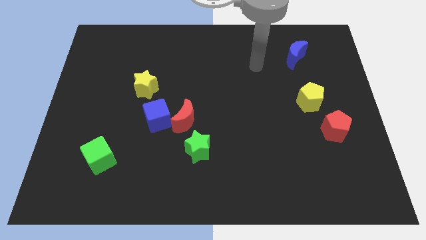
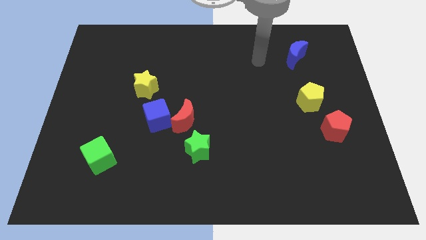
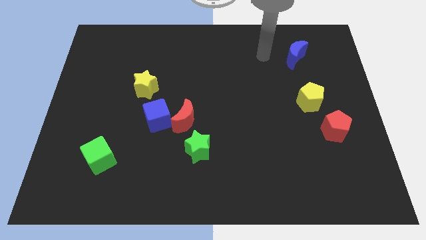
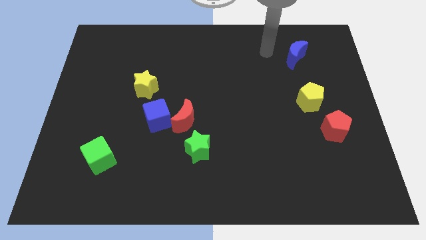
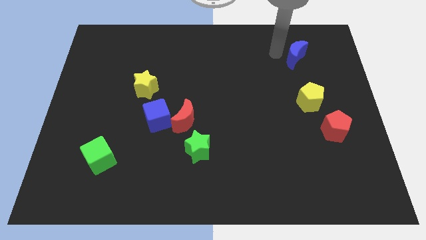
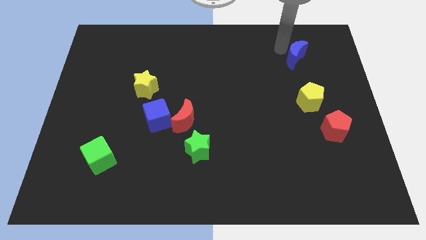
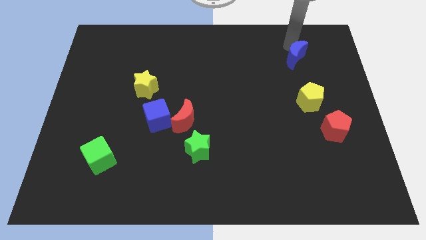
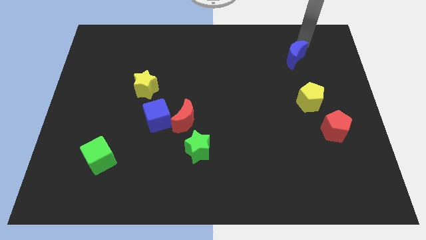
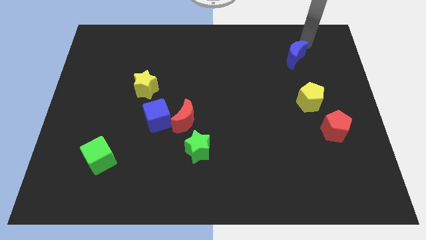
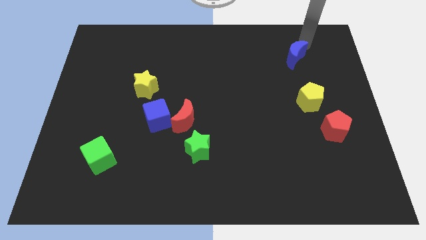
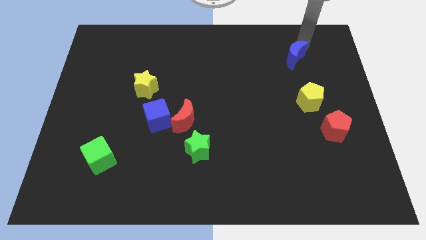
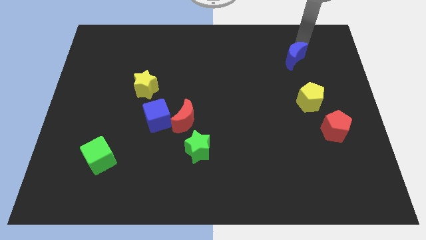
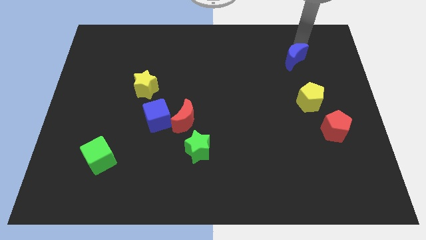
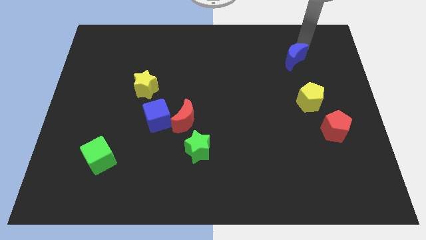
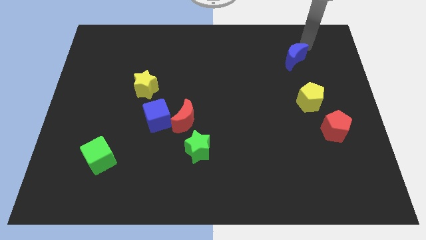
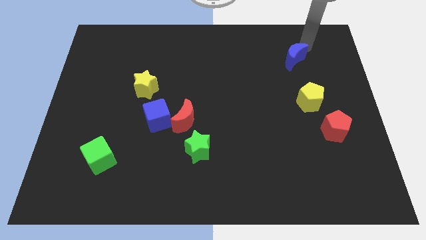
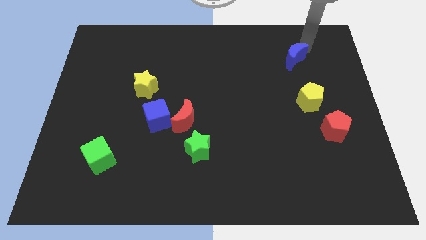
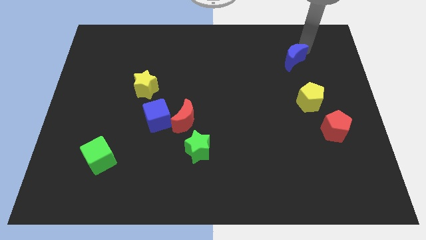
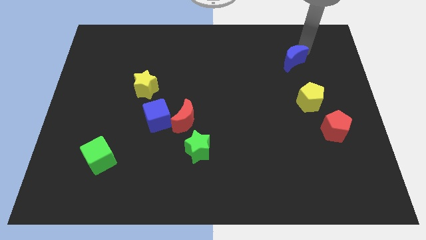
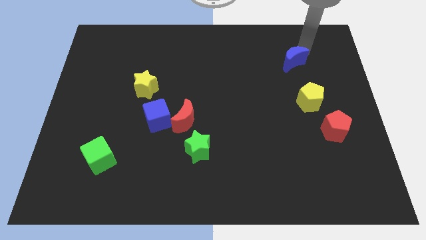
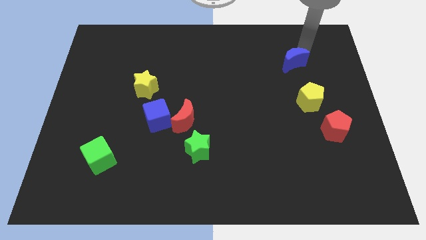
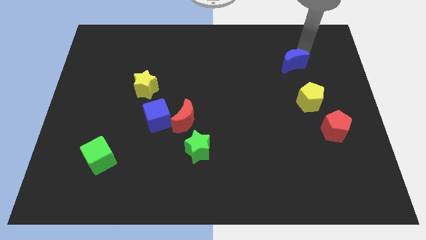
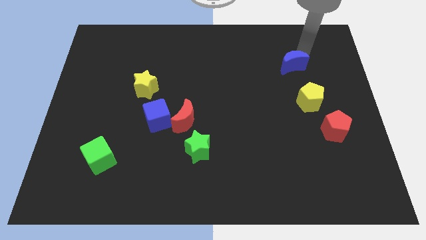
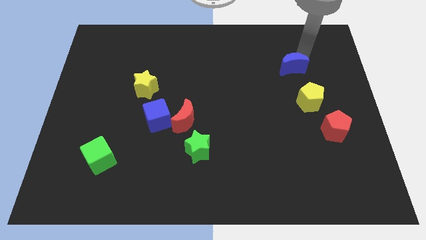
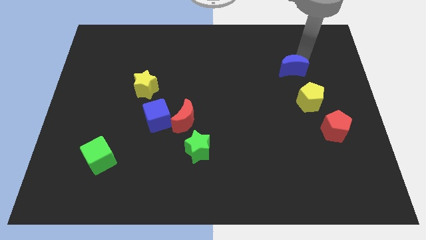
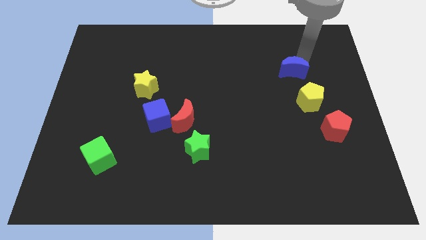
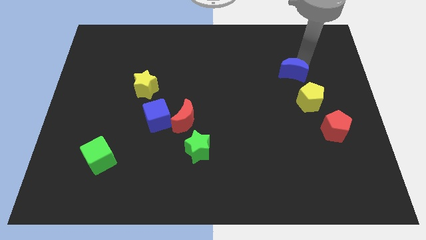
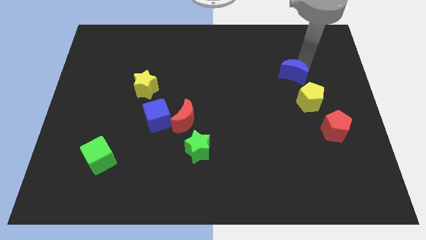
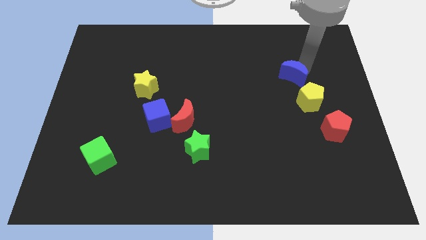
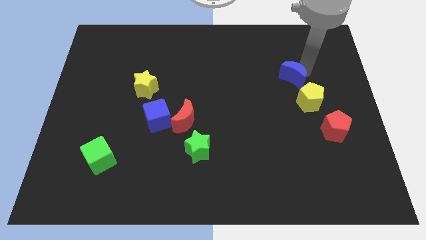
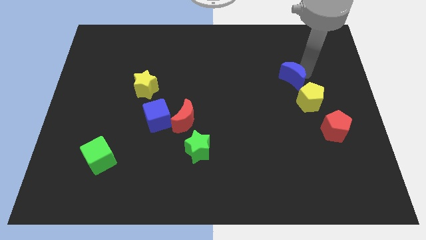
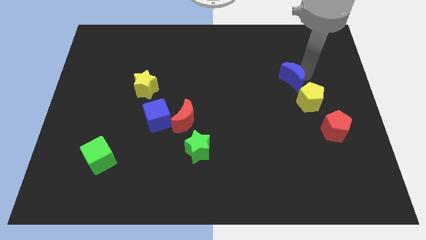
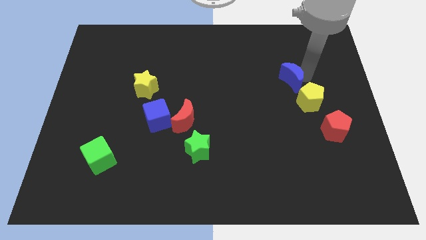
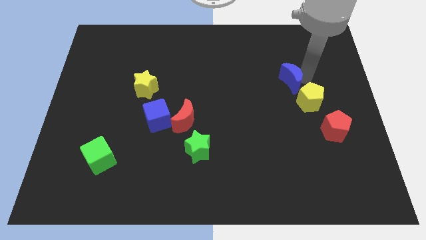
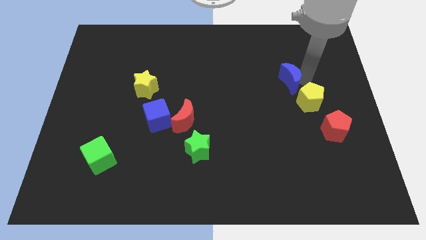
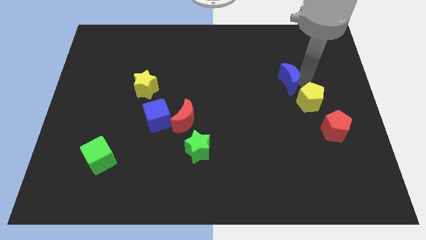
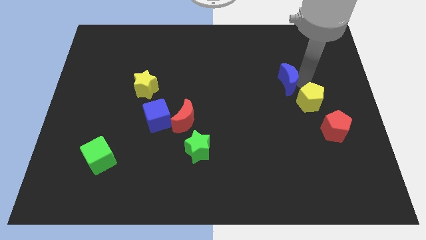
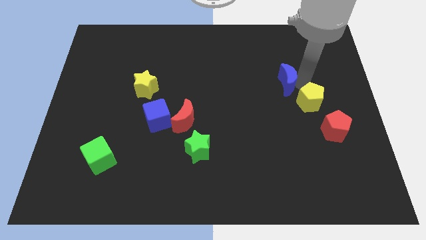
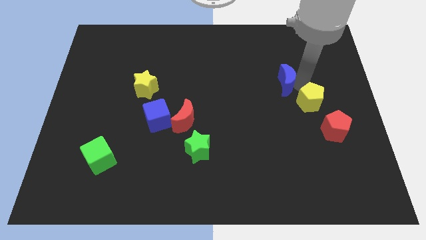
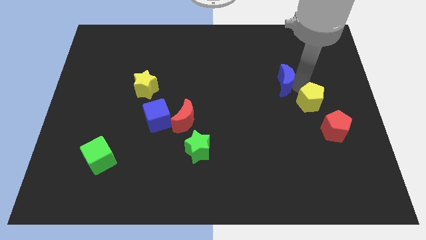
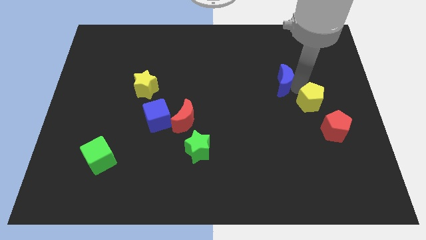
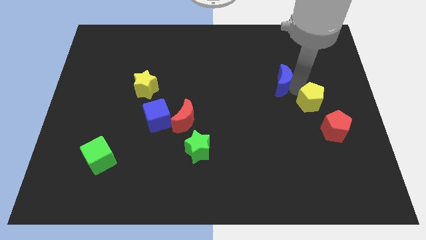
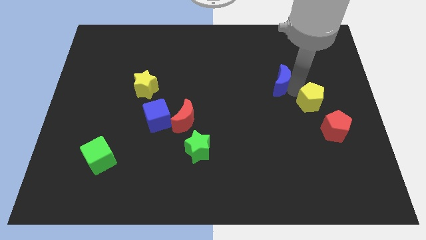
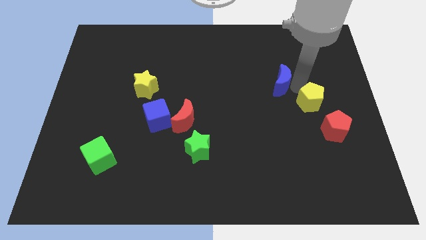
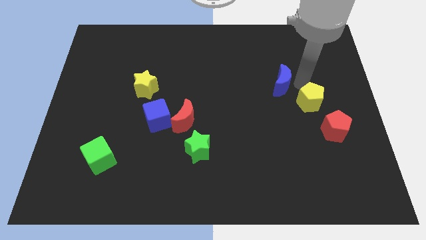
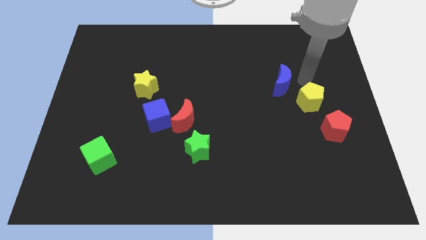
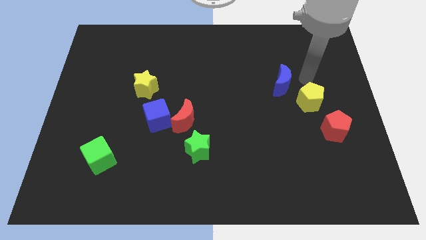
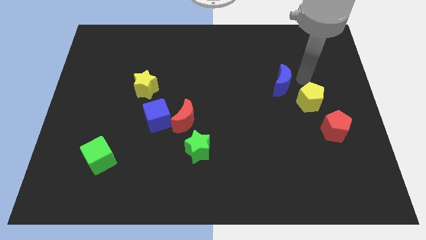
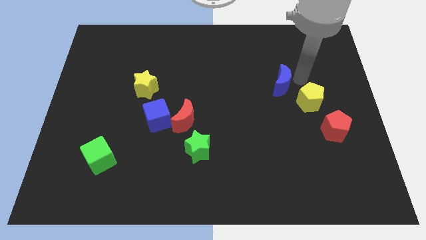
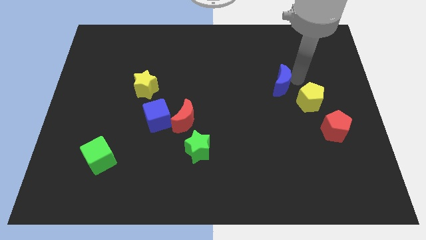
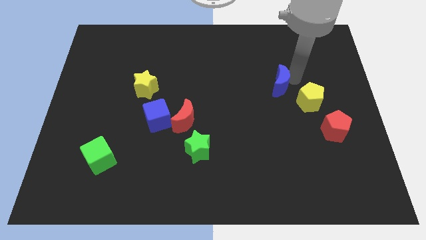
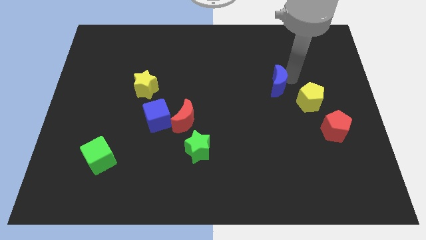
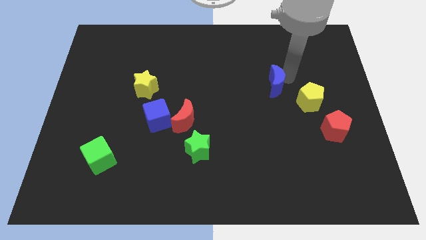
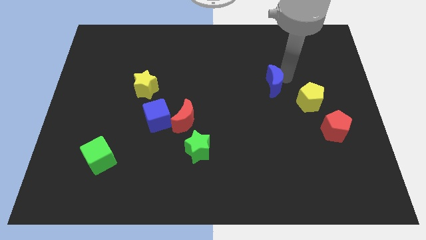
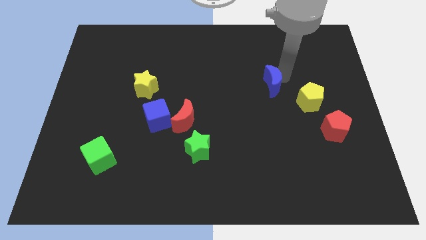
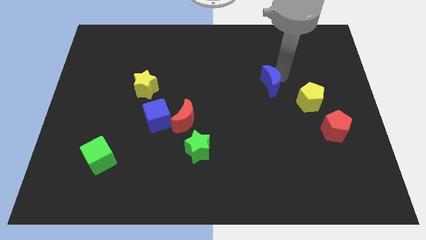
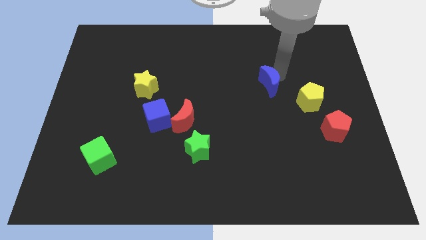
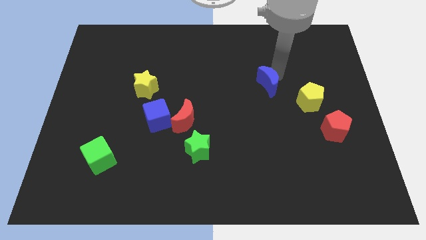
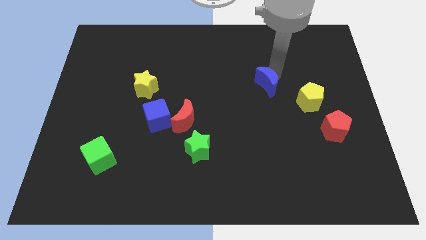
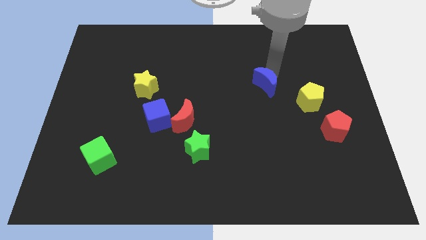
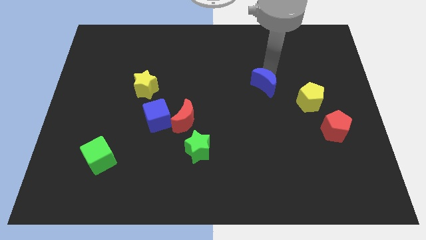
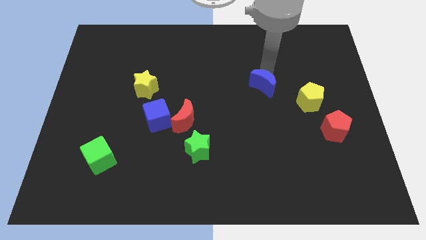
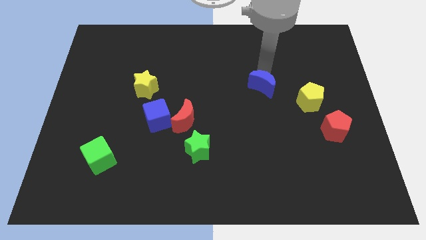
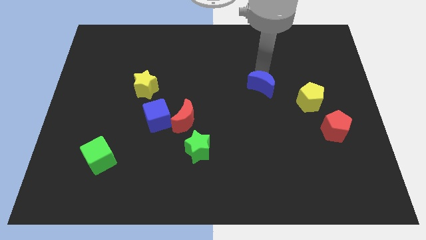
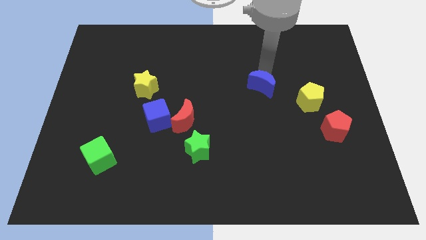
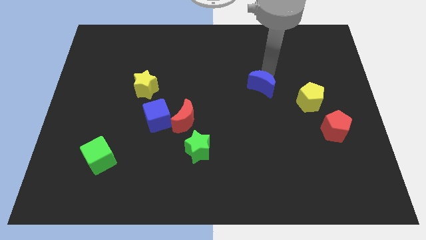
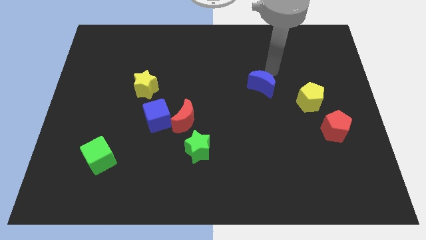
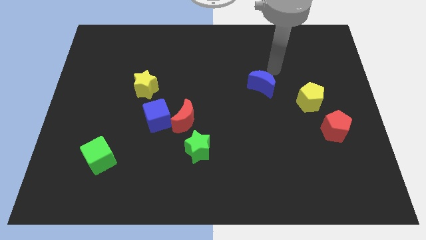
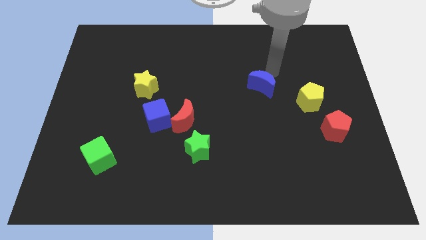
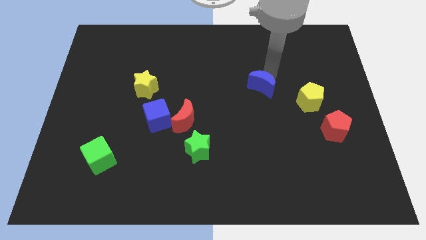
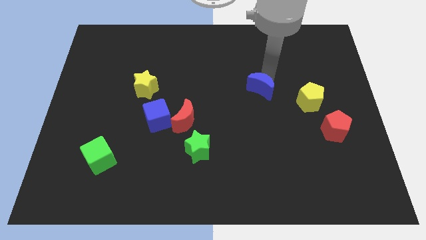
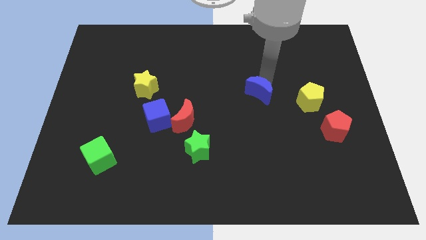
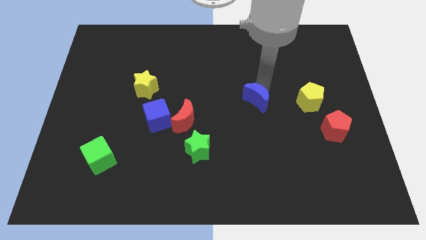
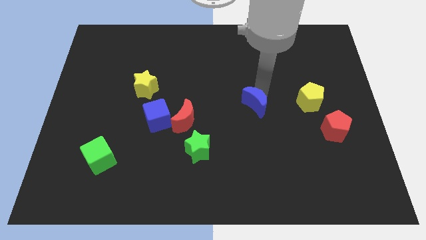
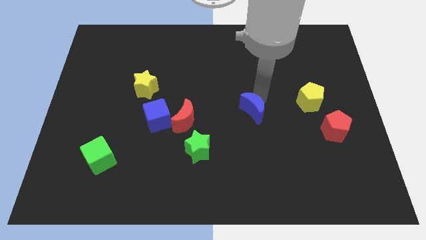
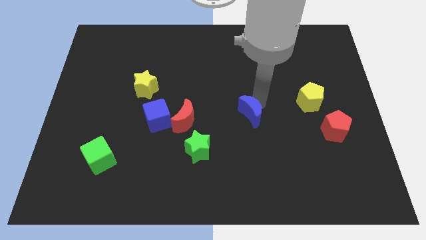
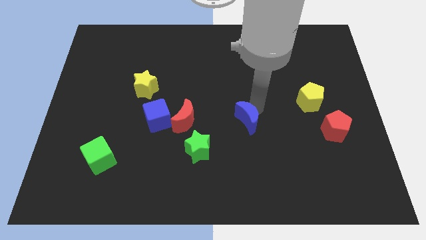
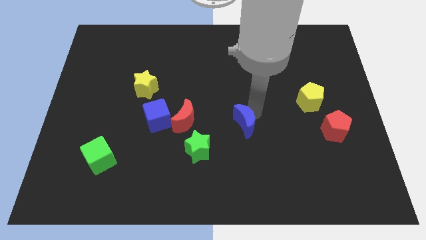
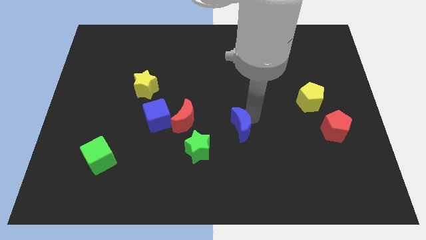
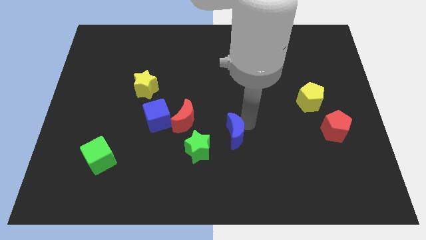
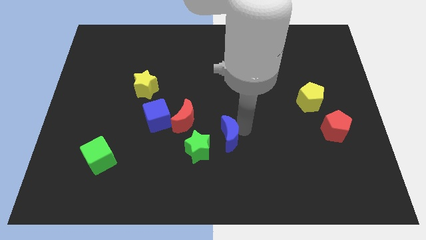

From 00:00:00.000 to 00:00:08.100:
move the blue moon to the bottom right of the red moon
